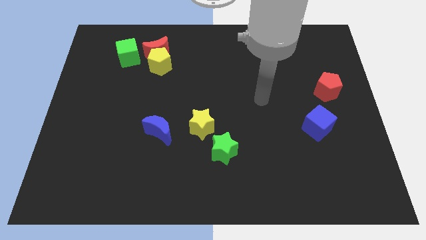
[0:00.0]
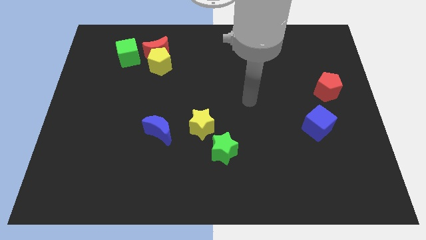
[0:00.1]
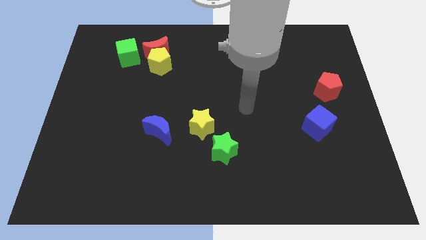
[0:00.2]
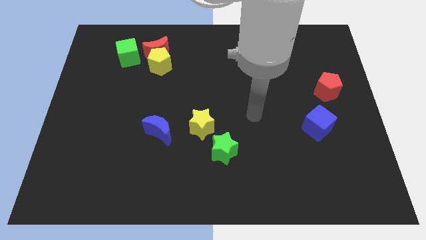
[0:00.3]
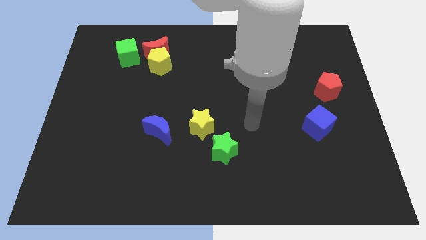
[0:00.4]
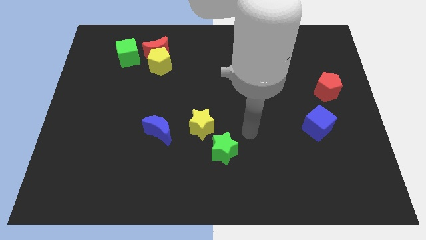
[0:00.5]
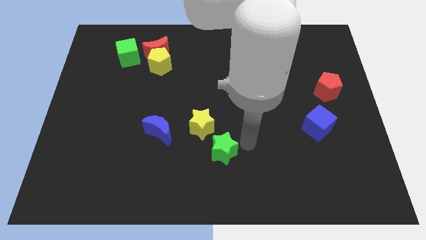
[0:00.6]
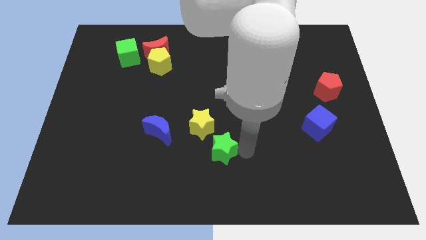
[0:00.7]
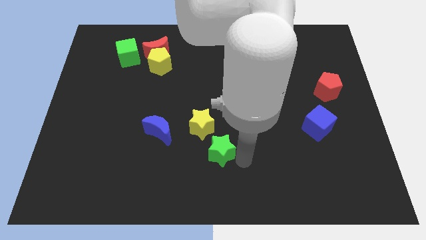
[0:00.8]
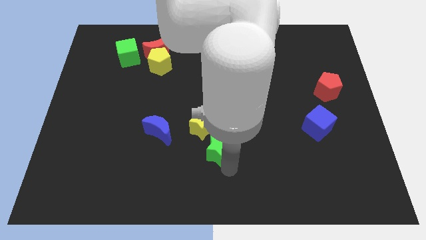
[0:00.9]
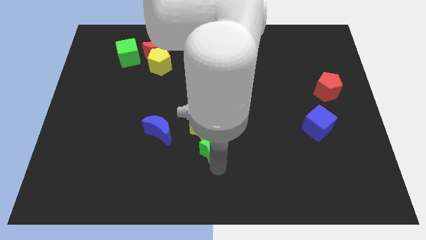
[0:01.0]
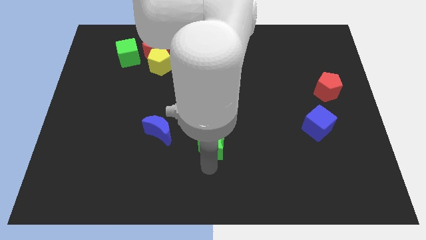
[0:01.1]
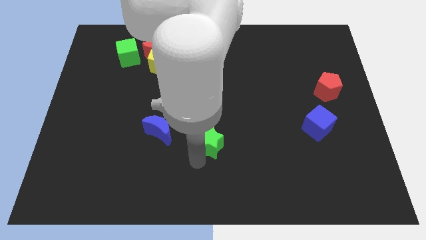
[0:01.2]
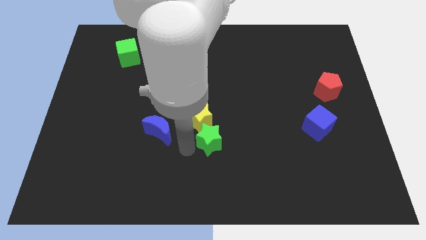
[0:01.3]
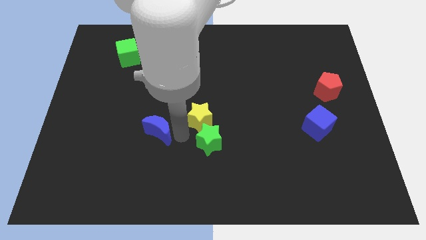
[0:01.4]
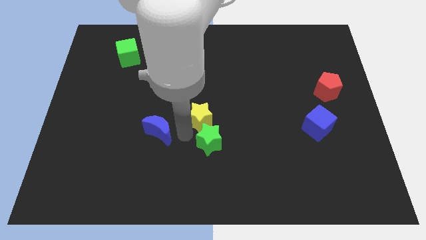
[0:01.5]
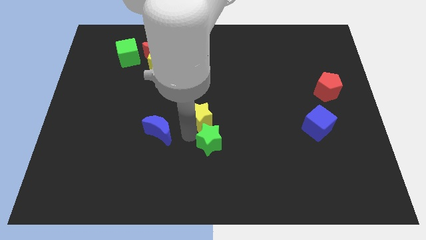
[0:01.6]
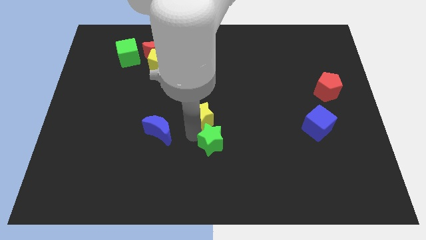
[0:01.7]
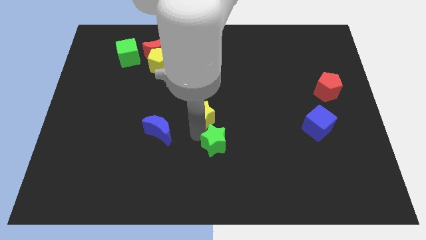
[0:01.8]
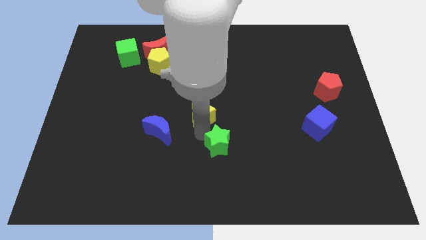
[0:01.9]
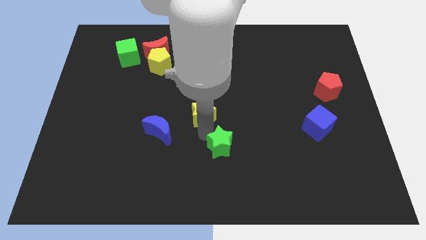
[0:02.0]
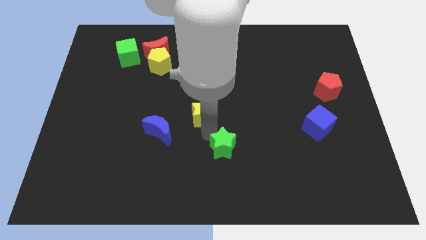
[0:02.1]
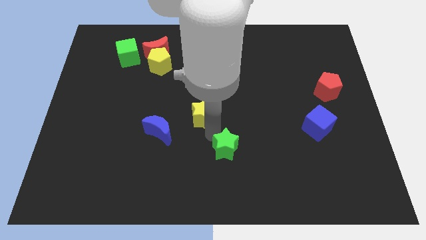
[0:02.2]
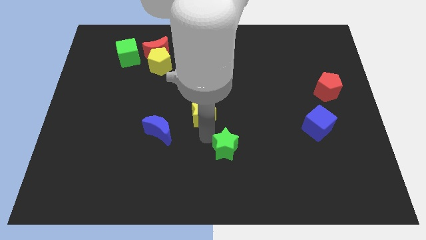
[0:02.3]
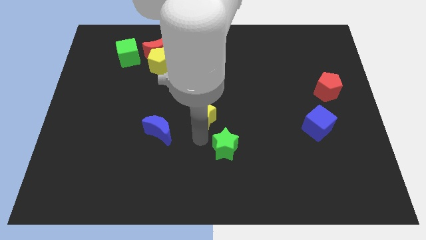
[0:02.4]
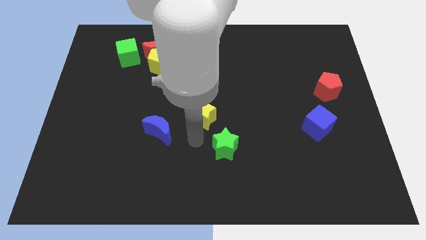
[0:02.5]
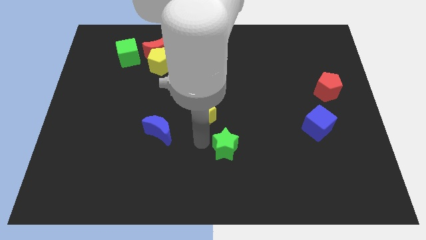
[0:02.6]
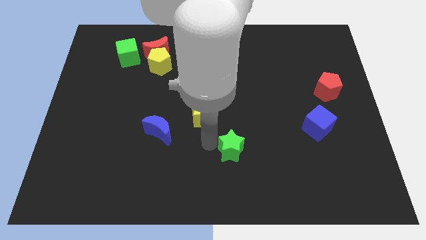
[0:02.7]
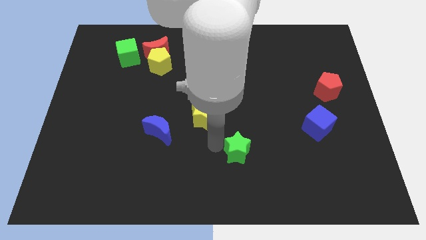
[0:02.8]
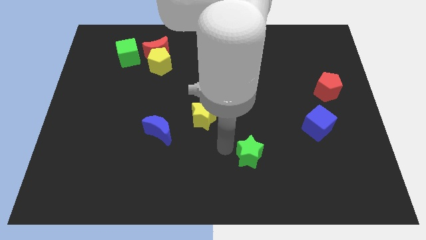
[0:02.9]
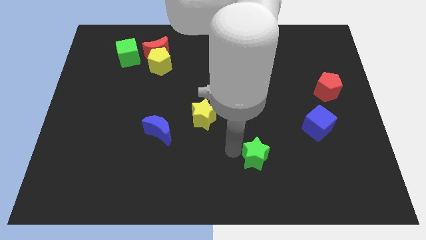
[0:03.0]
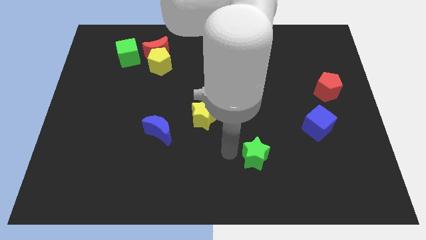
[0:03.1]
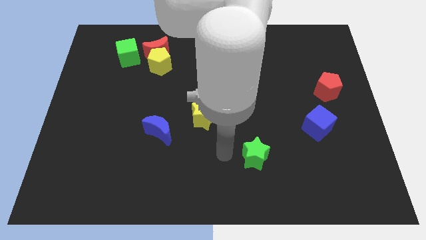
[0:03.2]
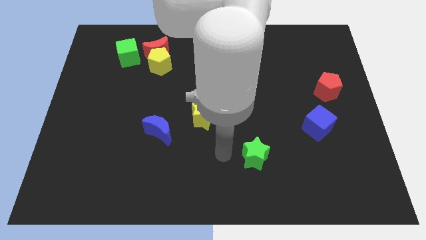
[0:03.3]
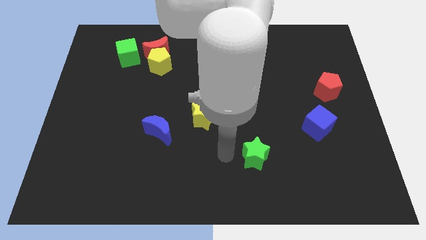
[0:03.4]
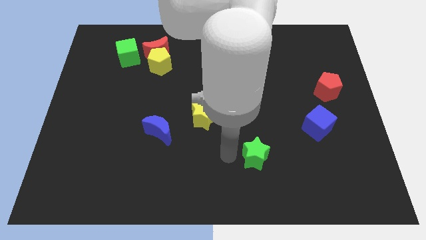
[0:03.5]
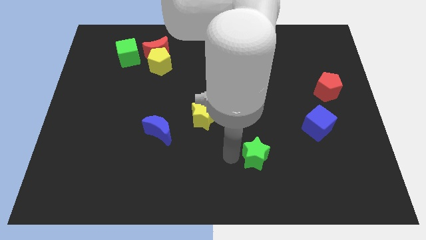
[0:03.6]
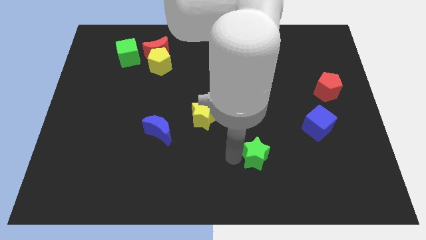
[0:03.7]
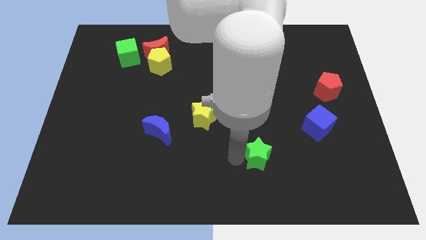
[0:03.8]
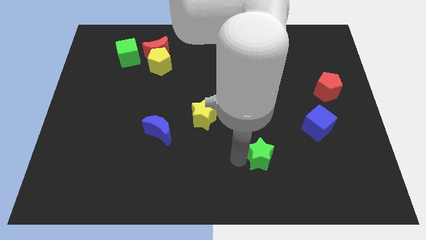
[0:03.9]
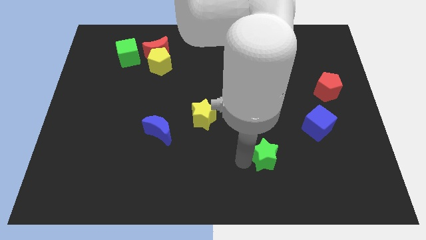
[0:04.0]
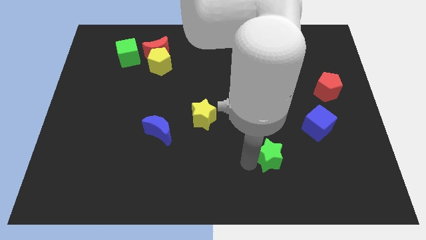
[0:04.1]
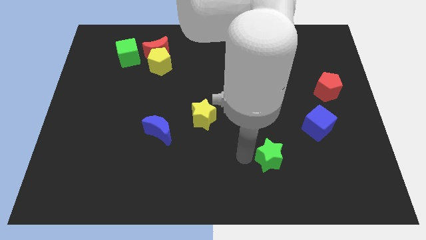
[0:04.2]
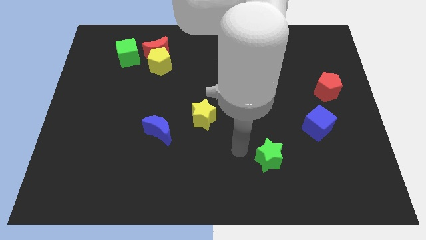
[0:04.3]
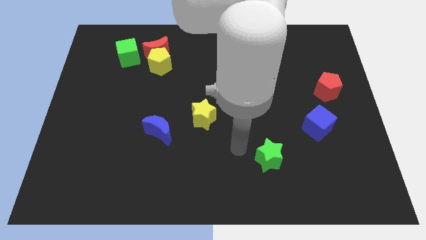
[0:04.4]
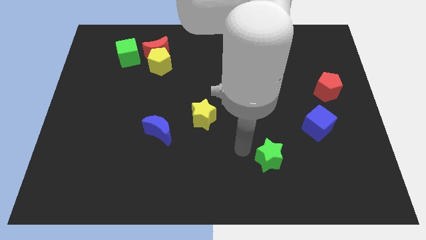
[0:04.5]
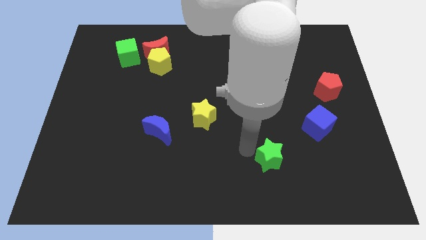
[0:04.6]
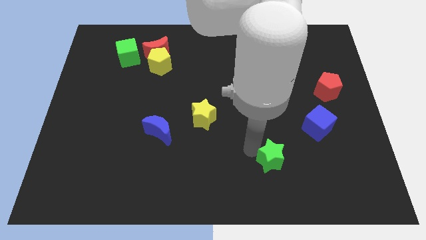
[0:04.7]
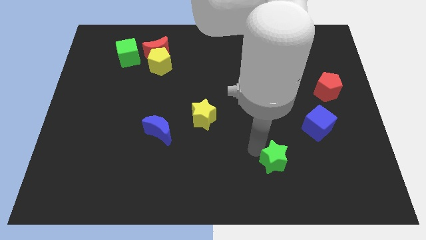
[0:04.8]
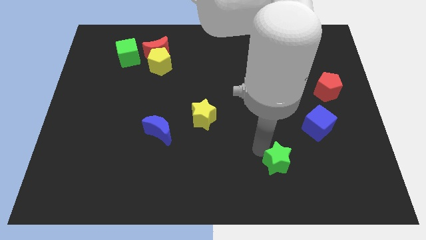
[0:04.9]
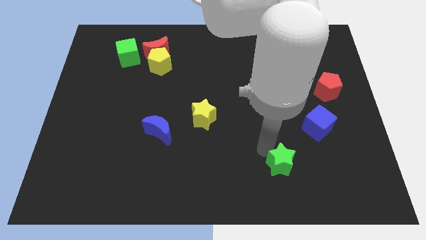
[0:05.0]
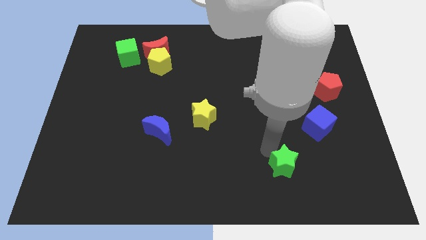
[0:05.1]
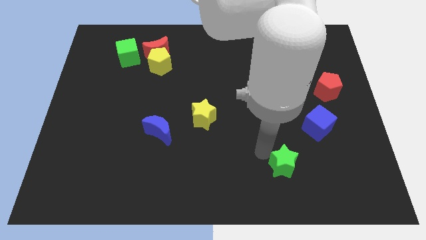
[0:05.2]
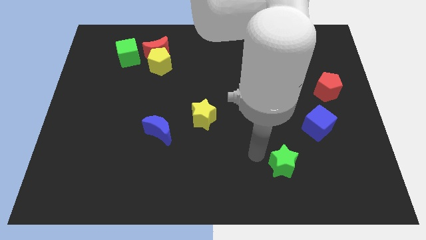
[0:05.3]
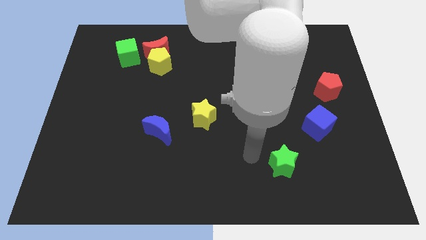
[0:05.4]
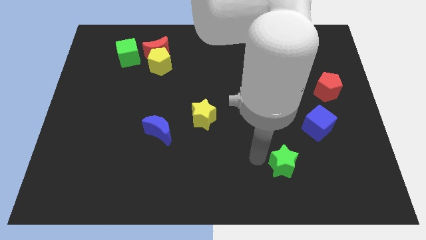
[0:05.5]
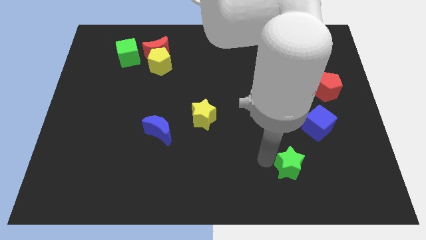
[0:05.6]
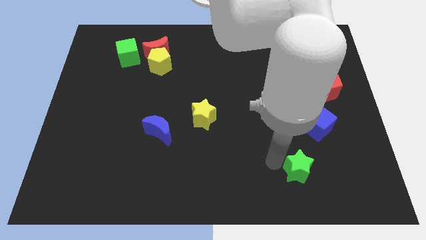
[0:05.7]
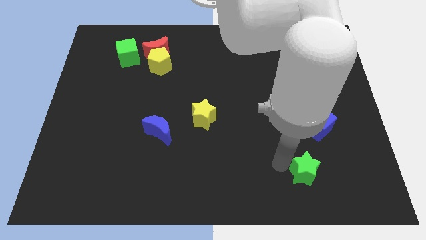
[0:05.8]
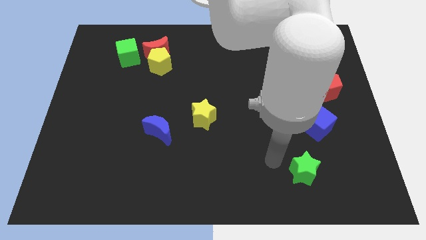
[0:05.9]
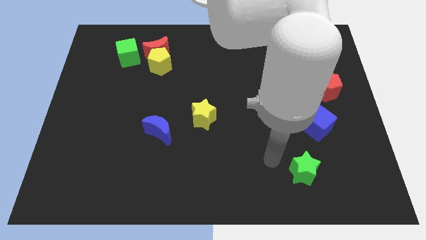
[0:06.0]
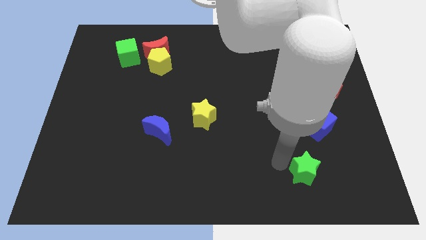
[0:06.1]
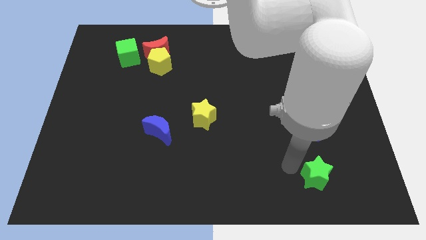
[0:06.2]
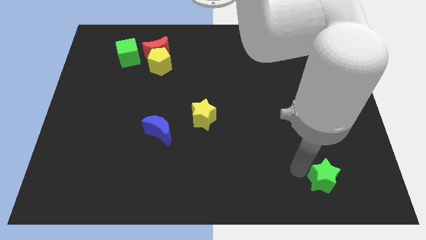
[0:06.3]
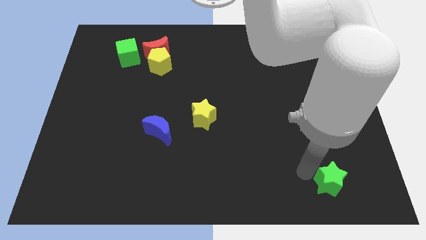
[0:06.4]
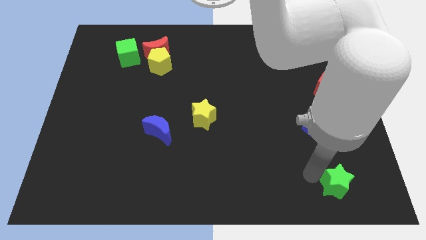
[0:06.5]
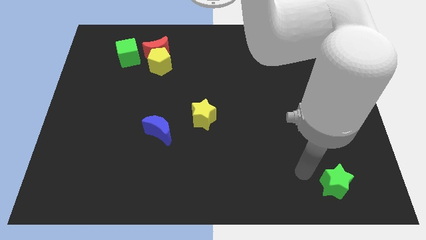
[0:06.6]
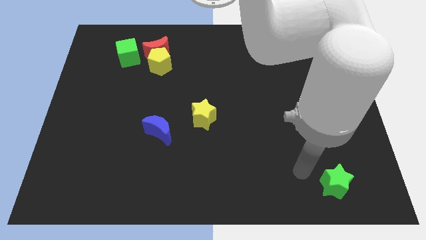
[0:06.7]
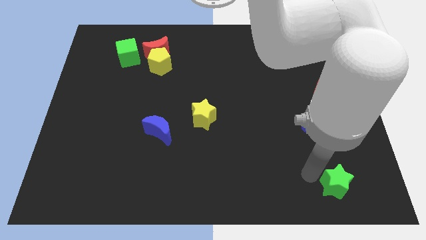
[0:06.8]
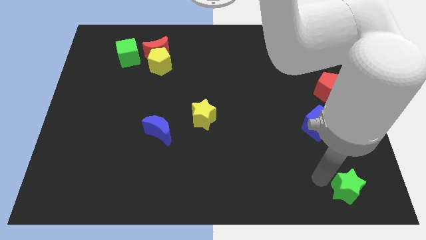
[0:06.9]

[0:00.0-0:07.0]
slide the green star to the bottom right corner

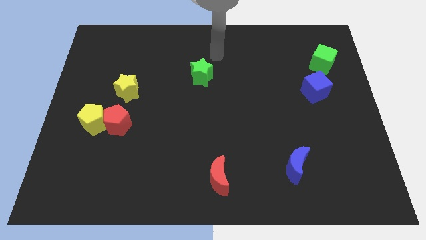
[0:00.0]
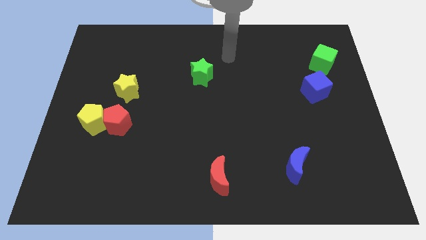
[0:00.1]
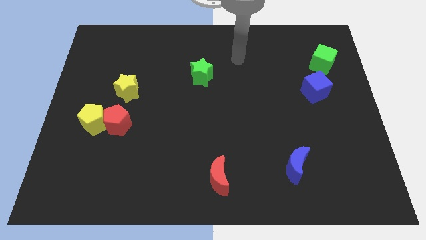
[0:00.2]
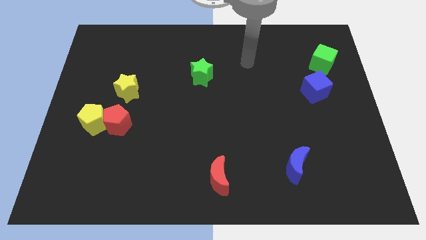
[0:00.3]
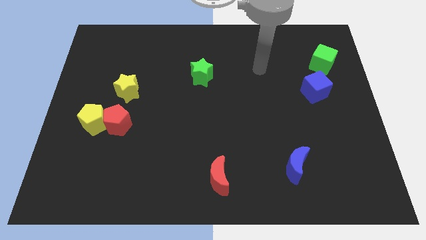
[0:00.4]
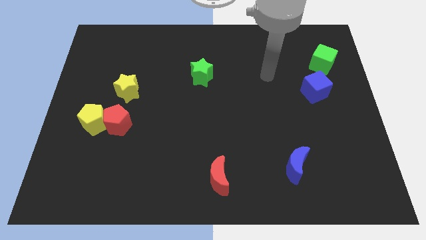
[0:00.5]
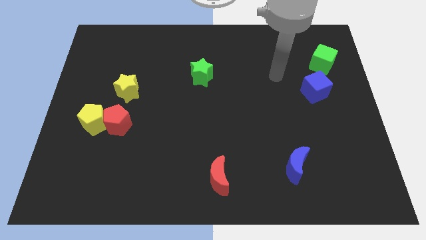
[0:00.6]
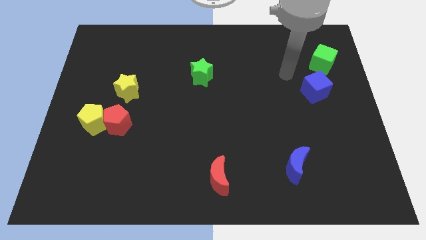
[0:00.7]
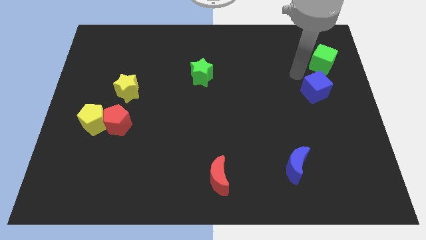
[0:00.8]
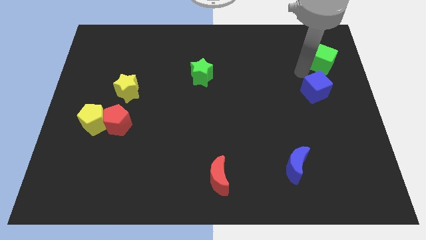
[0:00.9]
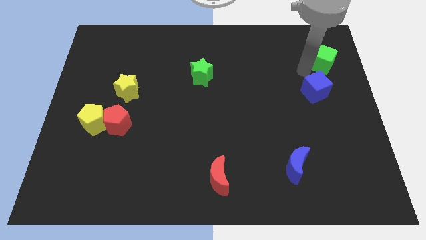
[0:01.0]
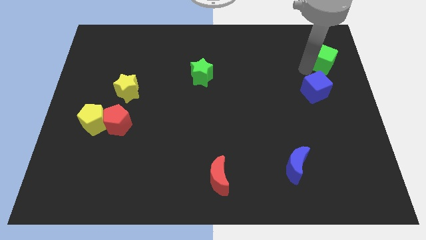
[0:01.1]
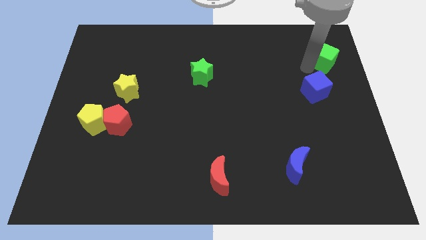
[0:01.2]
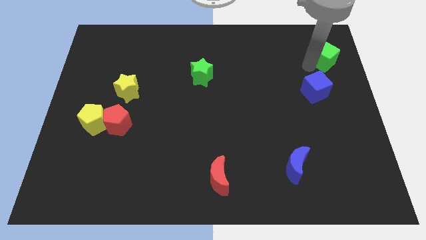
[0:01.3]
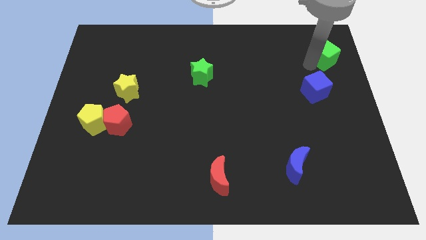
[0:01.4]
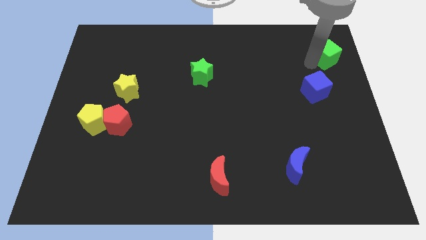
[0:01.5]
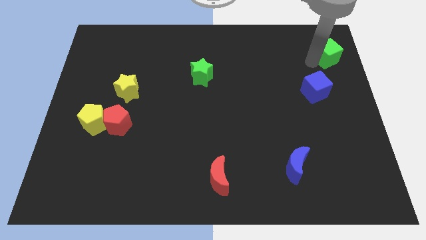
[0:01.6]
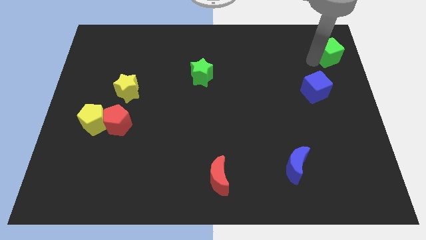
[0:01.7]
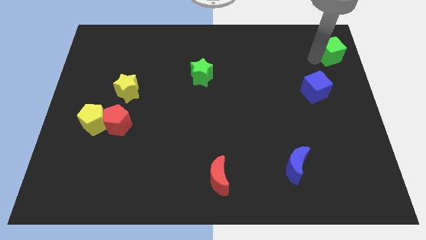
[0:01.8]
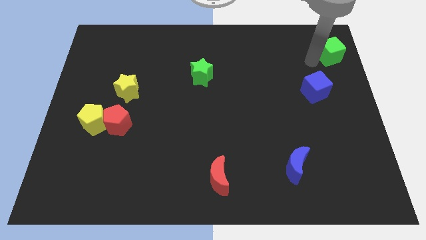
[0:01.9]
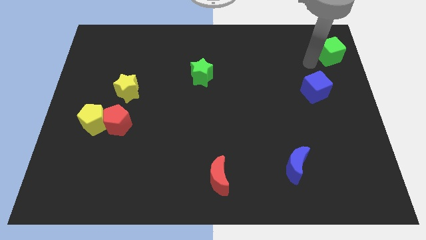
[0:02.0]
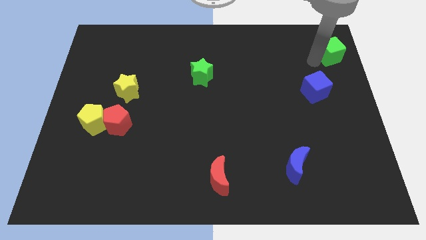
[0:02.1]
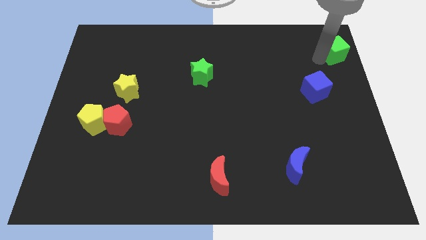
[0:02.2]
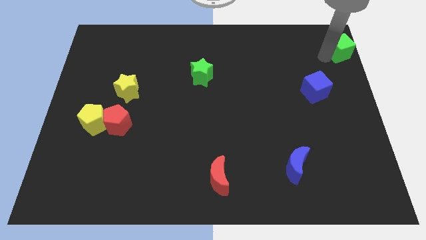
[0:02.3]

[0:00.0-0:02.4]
put the green cube to the top right
